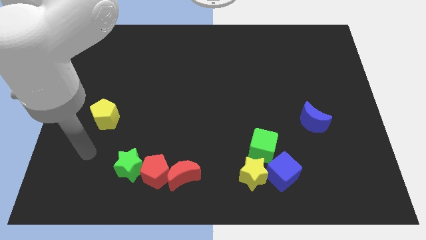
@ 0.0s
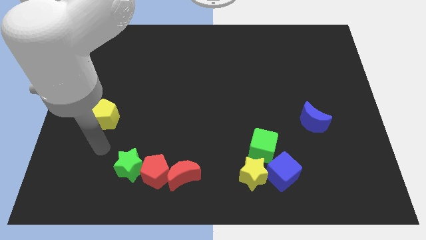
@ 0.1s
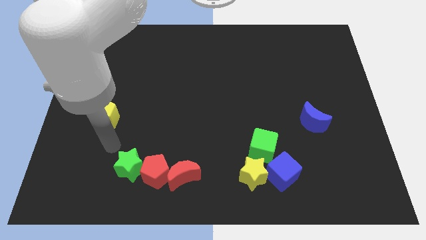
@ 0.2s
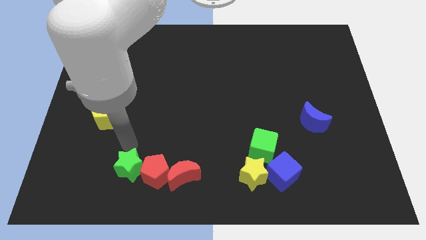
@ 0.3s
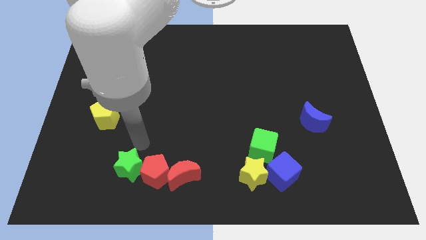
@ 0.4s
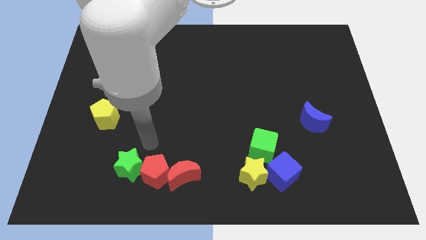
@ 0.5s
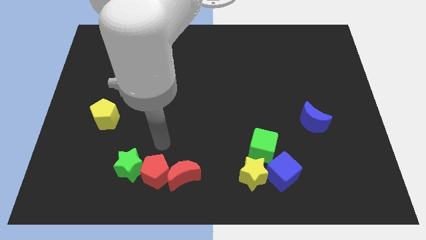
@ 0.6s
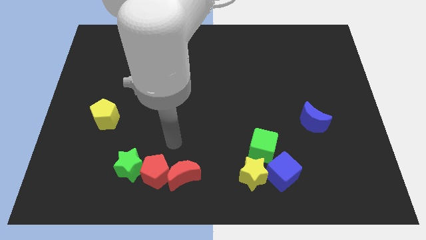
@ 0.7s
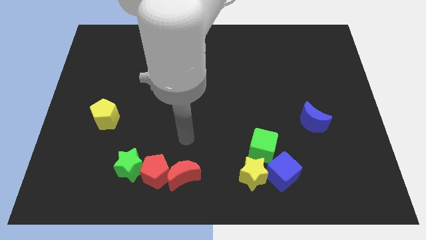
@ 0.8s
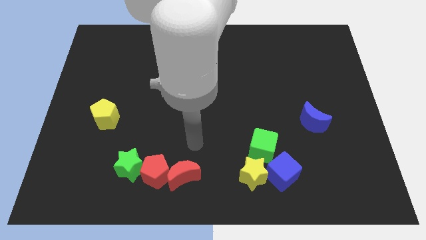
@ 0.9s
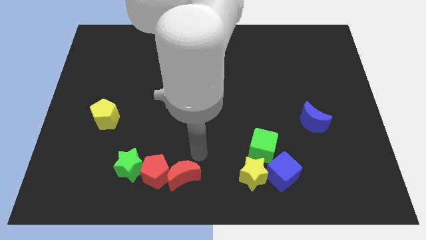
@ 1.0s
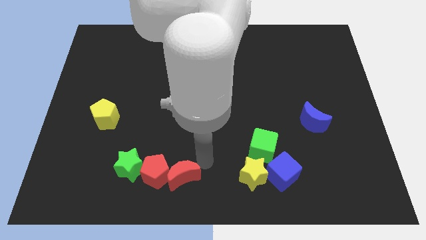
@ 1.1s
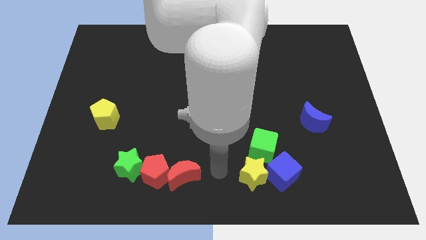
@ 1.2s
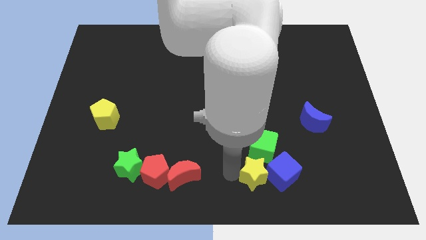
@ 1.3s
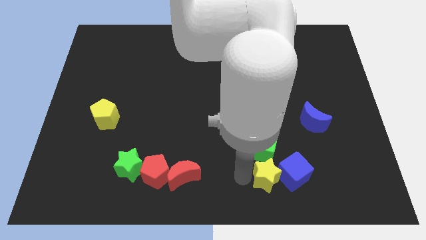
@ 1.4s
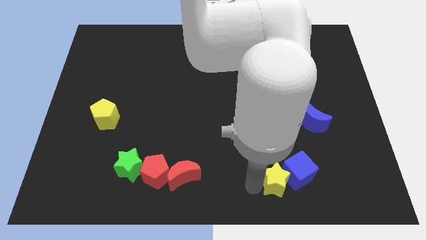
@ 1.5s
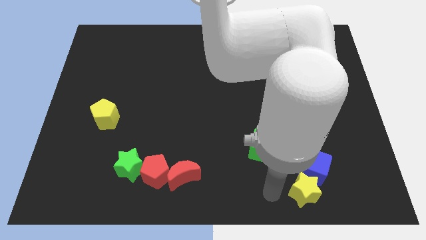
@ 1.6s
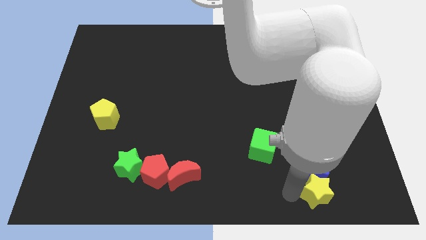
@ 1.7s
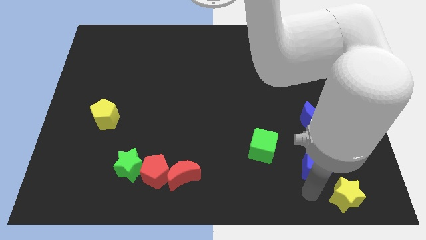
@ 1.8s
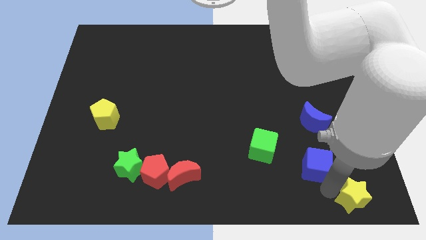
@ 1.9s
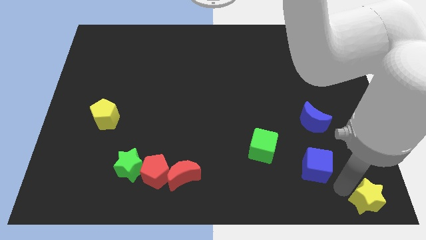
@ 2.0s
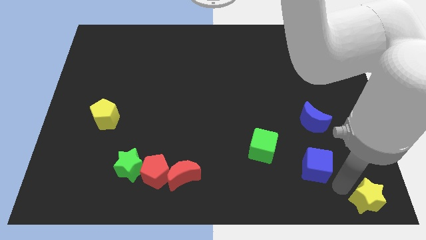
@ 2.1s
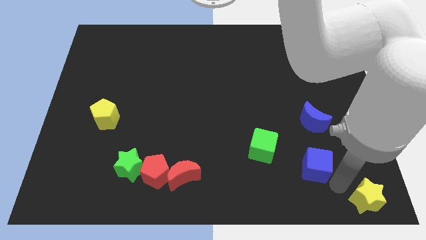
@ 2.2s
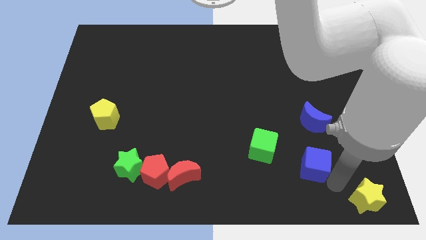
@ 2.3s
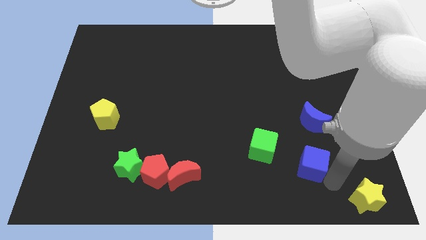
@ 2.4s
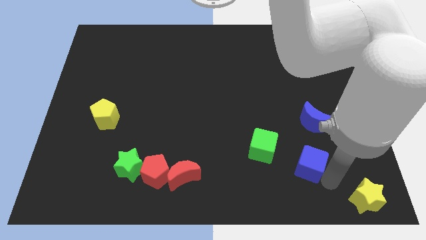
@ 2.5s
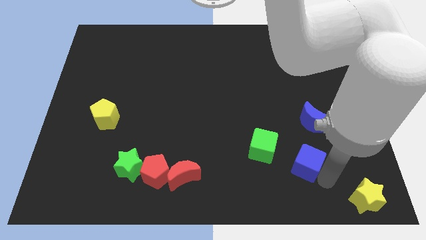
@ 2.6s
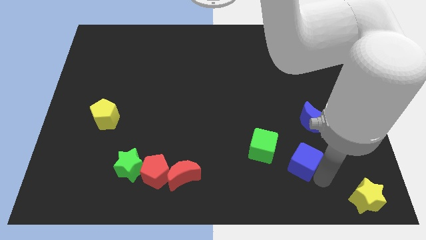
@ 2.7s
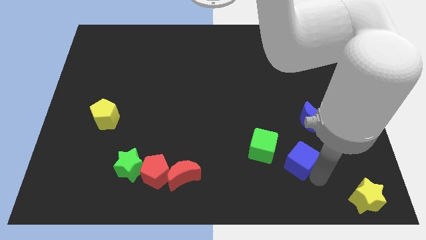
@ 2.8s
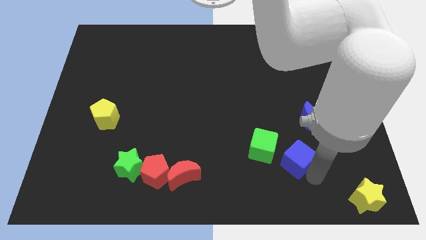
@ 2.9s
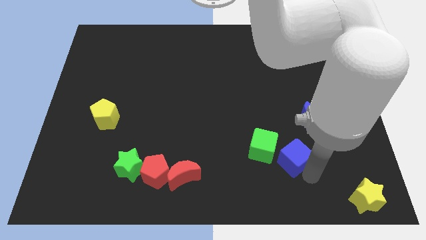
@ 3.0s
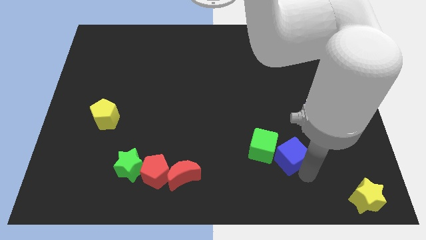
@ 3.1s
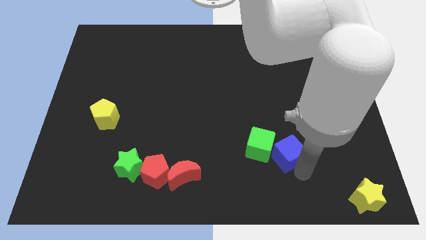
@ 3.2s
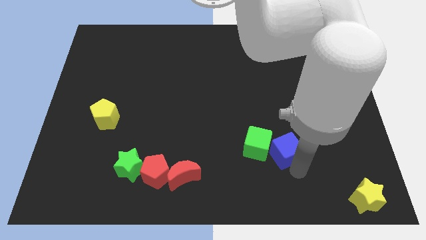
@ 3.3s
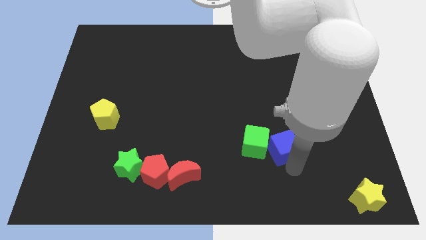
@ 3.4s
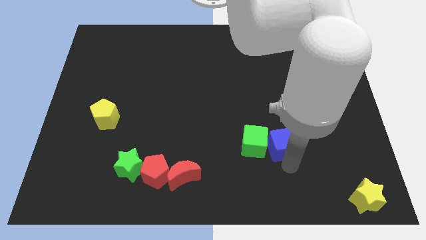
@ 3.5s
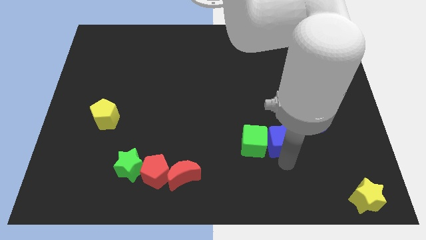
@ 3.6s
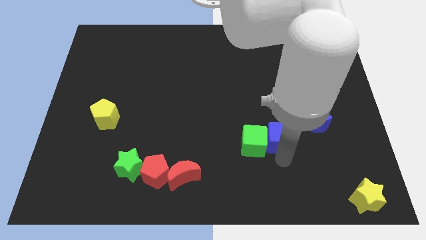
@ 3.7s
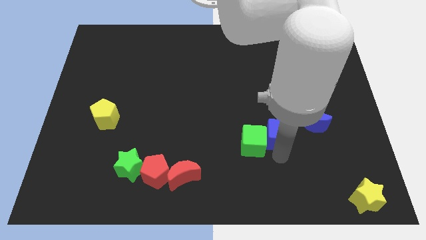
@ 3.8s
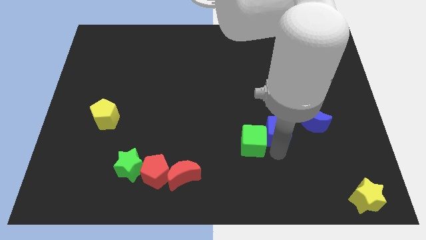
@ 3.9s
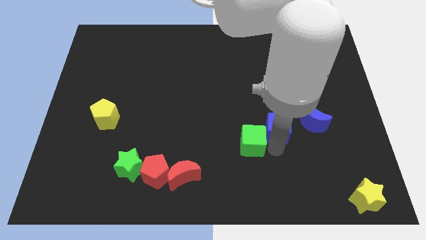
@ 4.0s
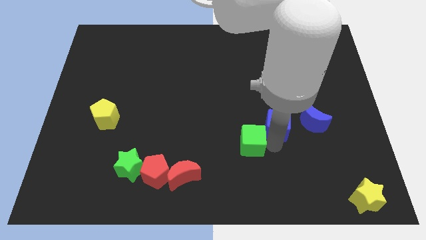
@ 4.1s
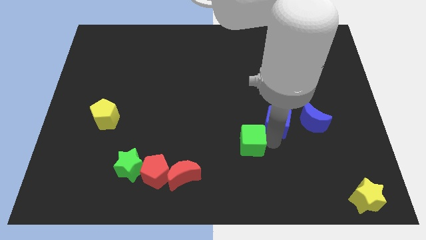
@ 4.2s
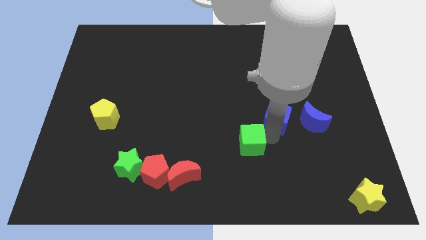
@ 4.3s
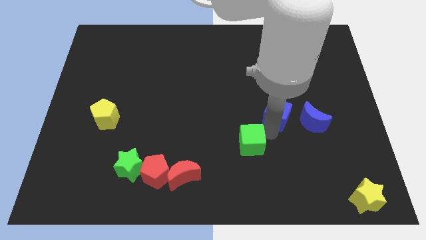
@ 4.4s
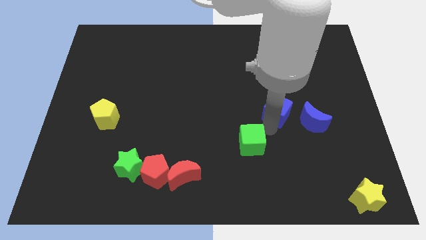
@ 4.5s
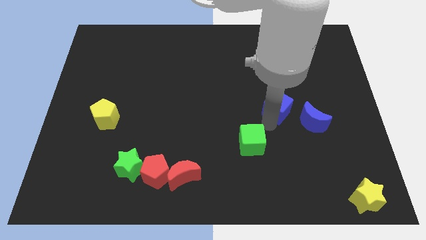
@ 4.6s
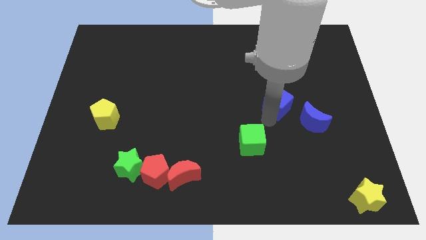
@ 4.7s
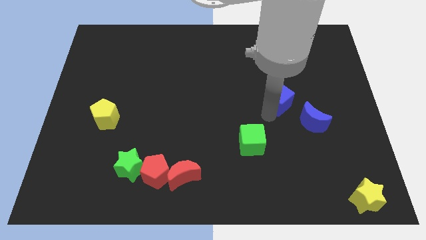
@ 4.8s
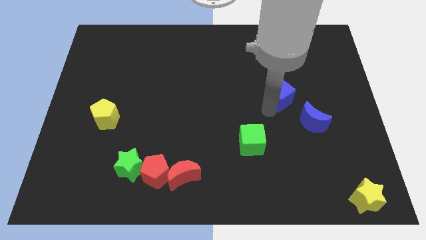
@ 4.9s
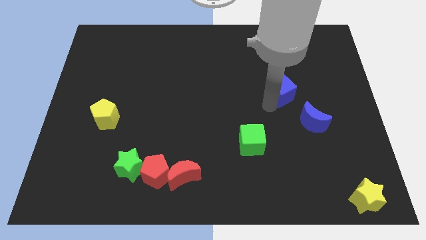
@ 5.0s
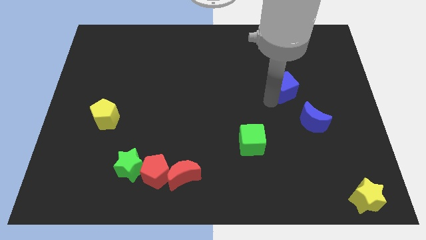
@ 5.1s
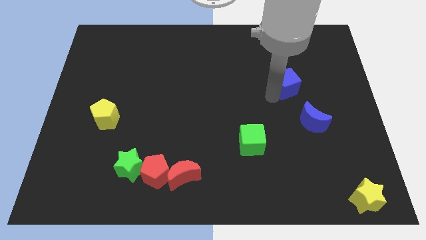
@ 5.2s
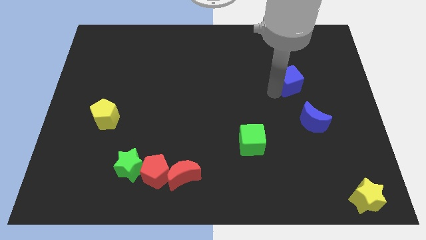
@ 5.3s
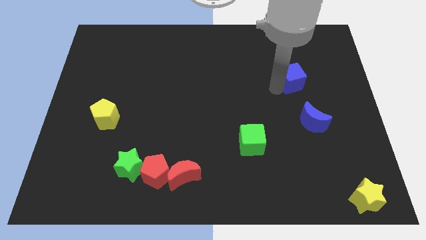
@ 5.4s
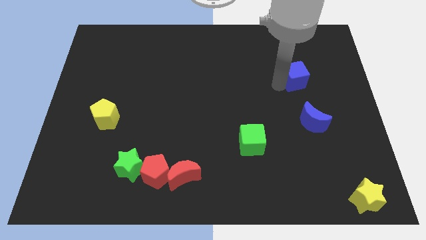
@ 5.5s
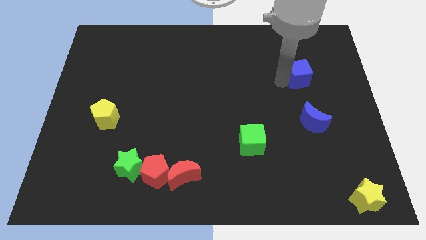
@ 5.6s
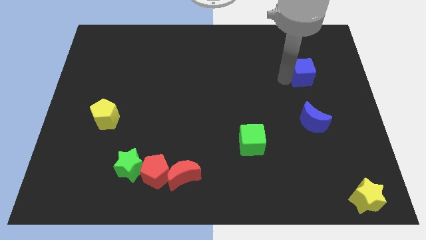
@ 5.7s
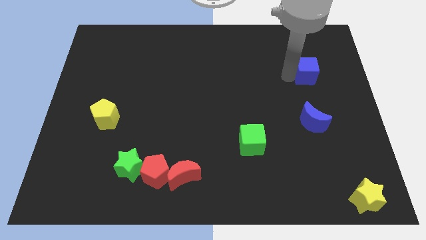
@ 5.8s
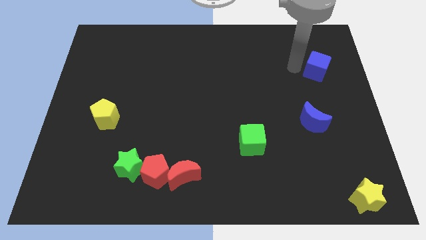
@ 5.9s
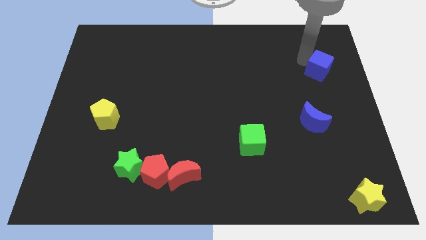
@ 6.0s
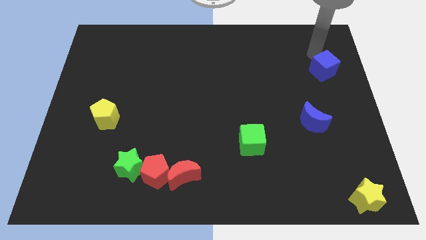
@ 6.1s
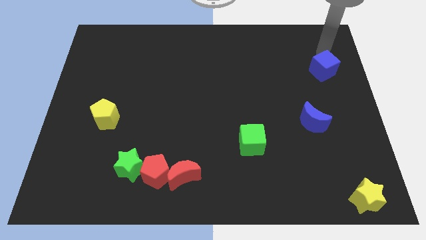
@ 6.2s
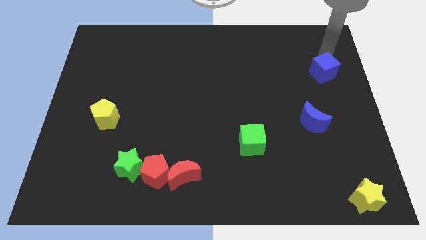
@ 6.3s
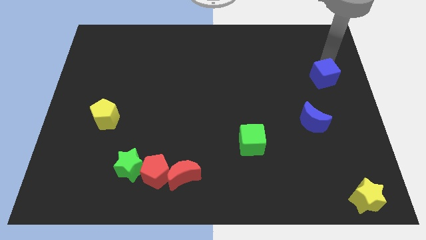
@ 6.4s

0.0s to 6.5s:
push the blue cube to the right side

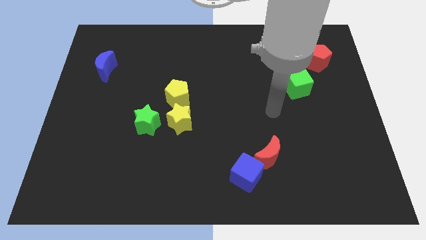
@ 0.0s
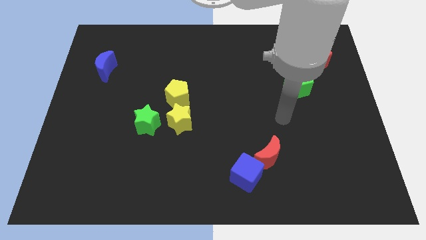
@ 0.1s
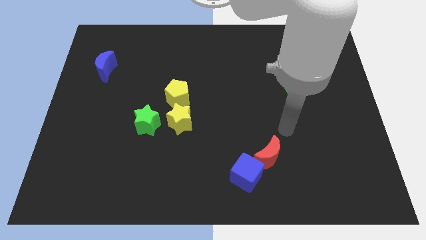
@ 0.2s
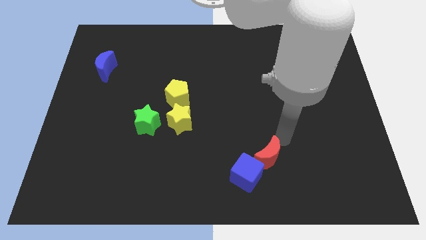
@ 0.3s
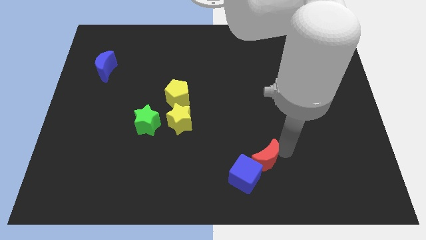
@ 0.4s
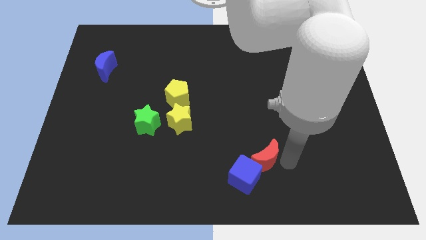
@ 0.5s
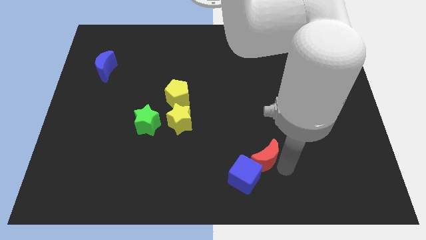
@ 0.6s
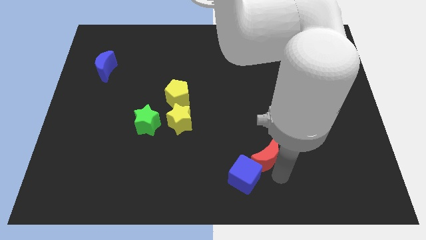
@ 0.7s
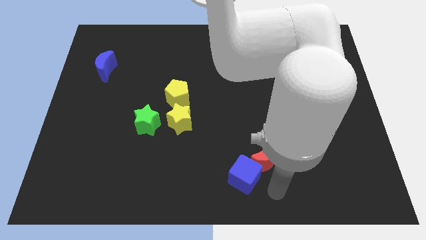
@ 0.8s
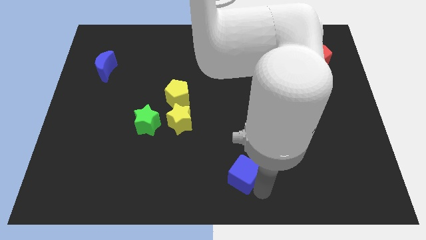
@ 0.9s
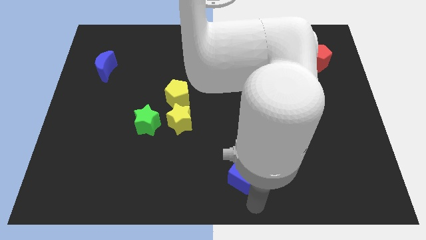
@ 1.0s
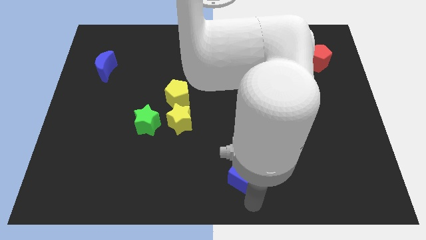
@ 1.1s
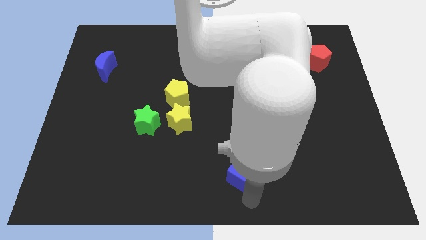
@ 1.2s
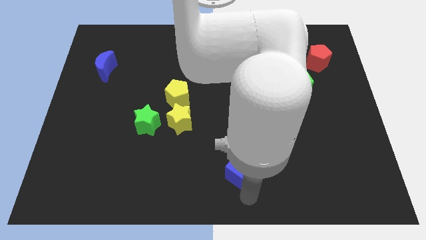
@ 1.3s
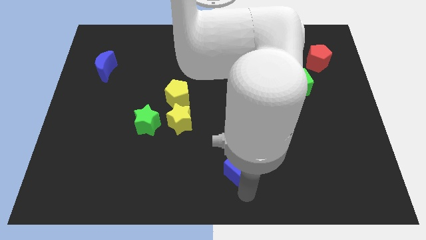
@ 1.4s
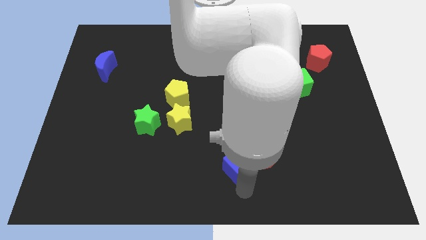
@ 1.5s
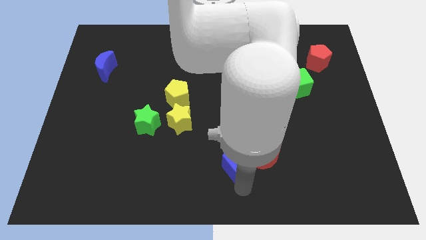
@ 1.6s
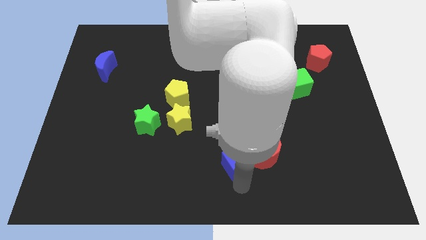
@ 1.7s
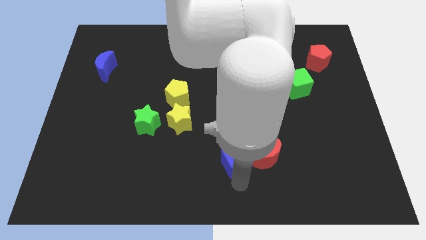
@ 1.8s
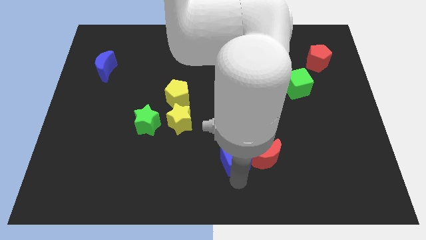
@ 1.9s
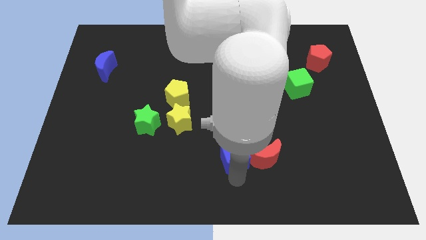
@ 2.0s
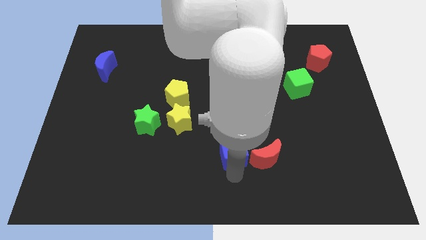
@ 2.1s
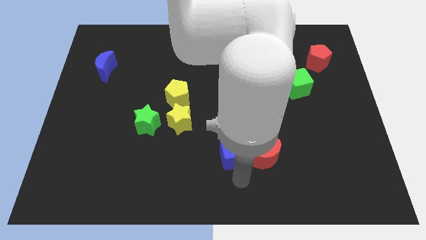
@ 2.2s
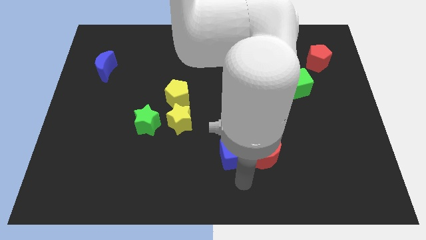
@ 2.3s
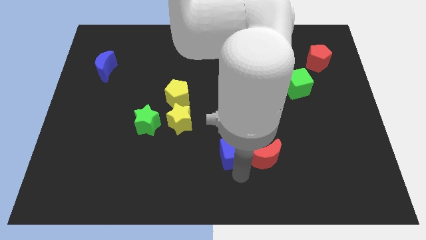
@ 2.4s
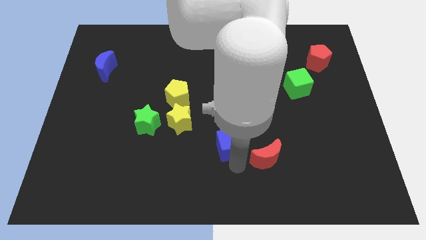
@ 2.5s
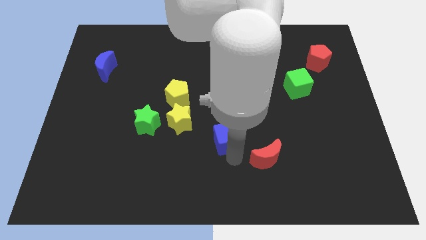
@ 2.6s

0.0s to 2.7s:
put the blue cube to the middle
